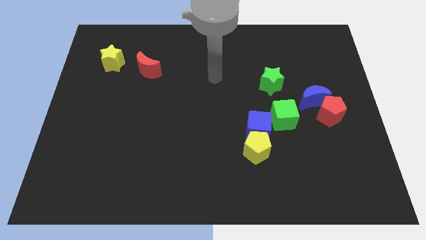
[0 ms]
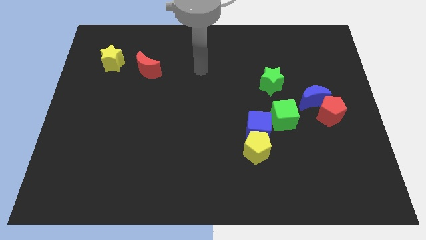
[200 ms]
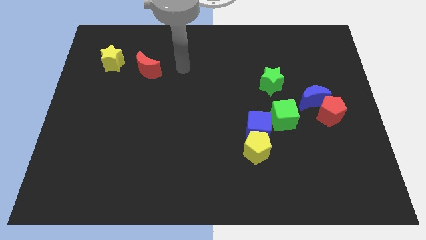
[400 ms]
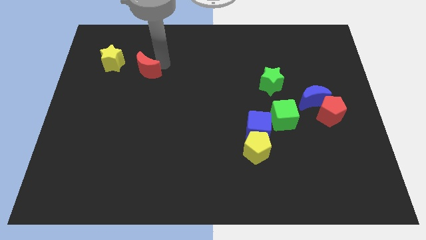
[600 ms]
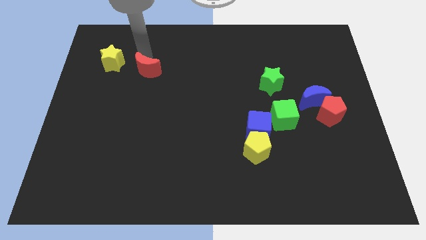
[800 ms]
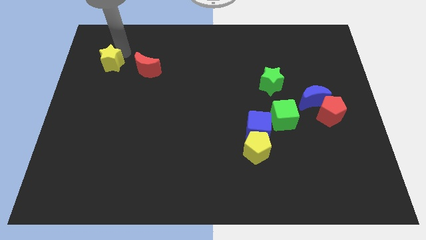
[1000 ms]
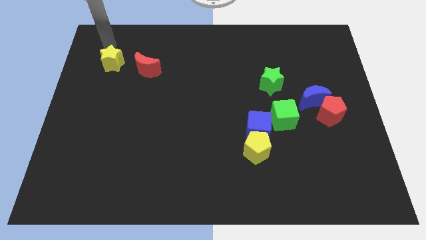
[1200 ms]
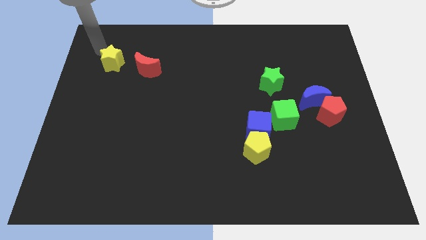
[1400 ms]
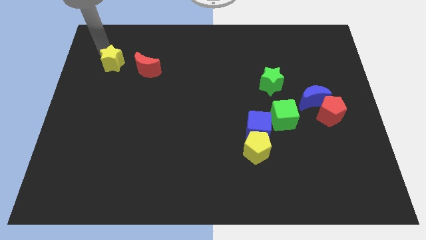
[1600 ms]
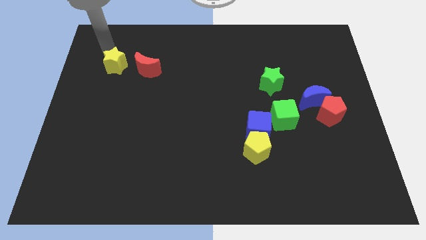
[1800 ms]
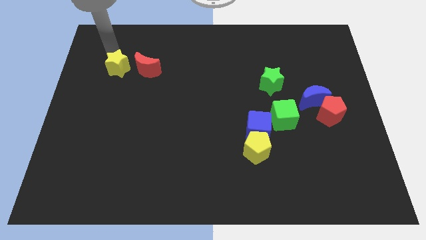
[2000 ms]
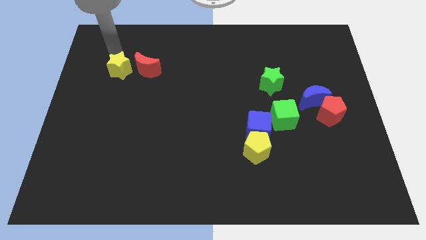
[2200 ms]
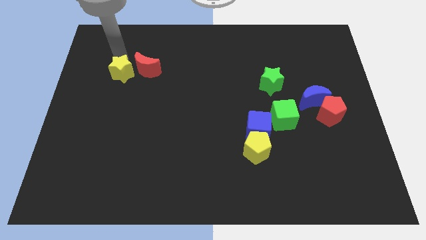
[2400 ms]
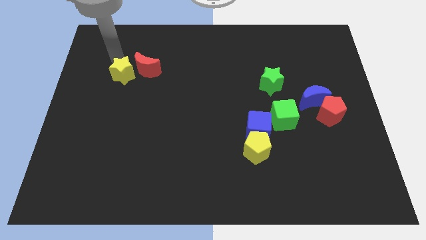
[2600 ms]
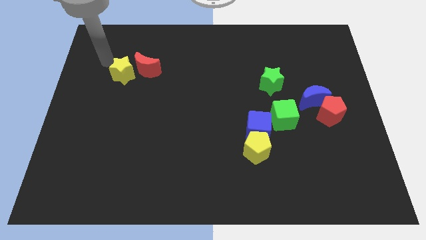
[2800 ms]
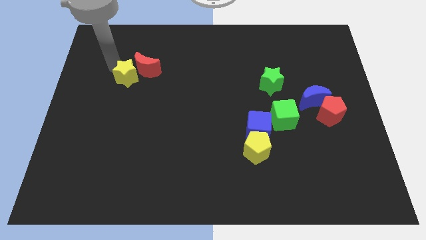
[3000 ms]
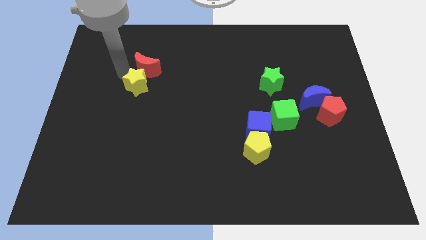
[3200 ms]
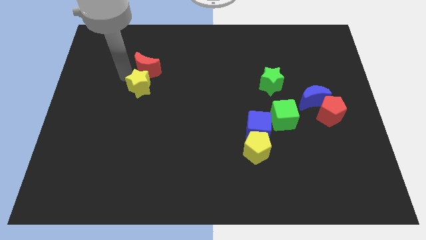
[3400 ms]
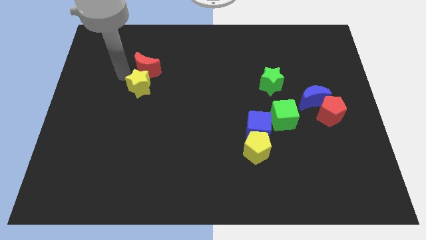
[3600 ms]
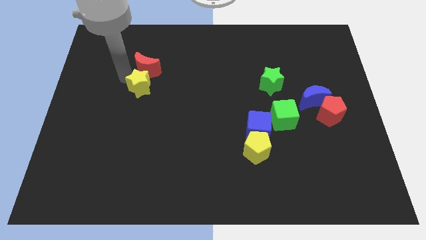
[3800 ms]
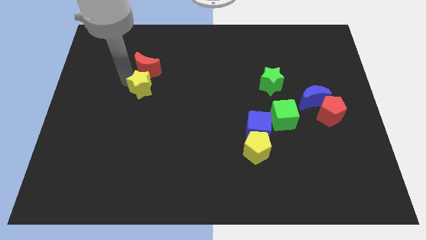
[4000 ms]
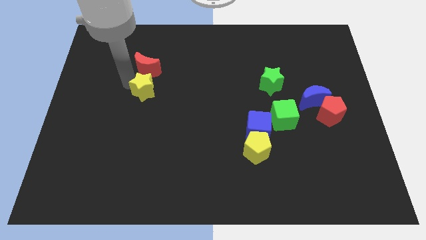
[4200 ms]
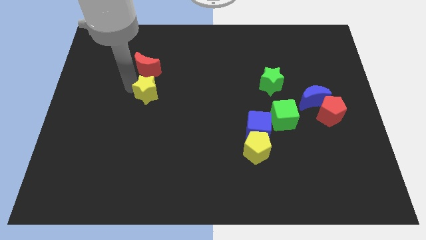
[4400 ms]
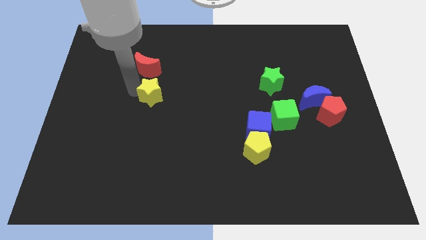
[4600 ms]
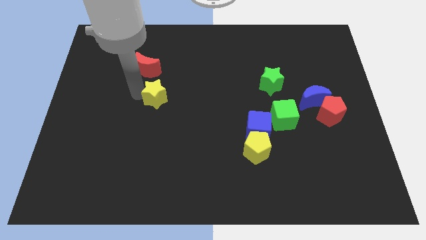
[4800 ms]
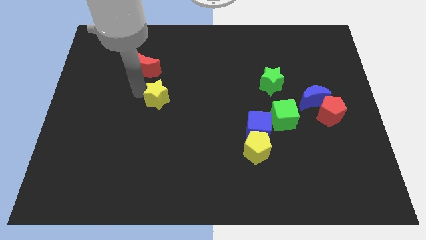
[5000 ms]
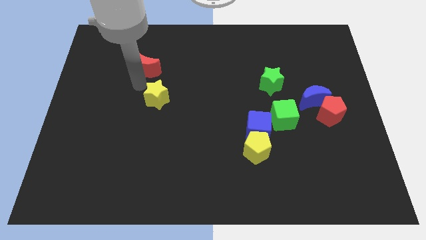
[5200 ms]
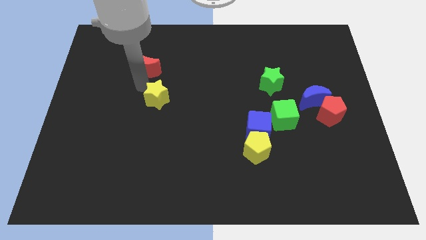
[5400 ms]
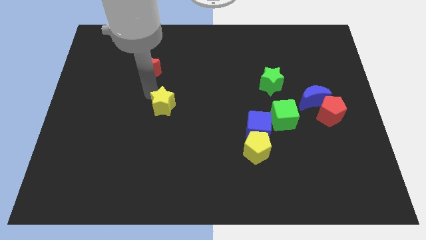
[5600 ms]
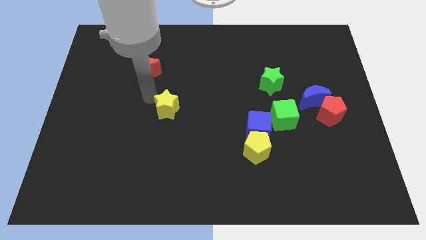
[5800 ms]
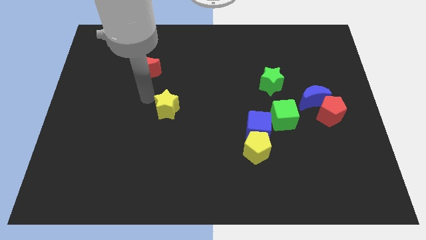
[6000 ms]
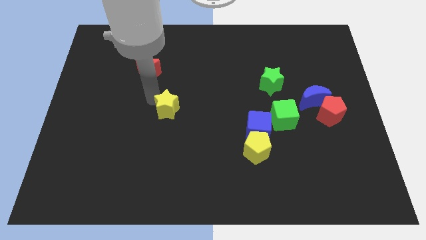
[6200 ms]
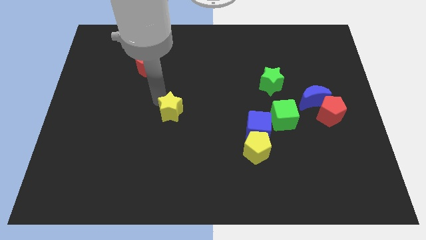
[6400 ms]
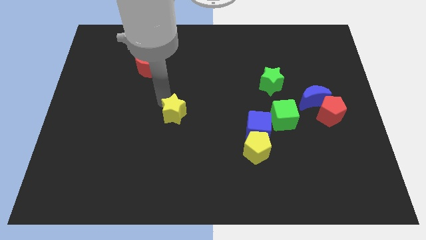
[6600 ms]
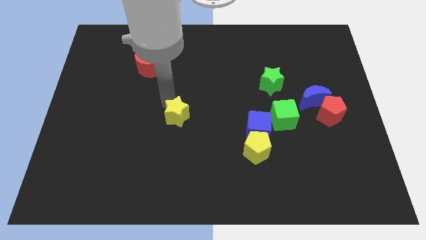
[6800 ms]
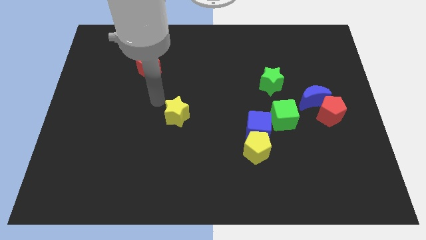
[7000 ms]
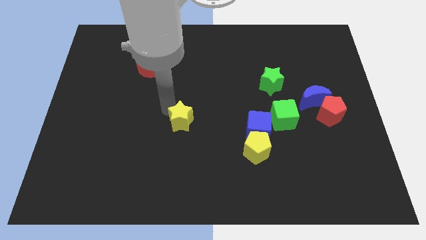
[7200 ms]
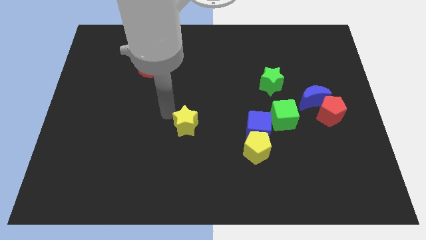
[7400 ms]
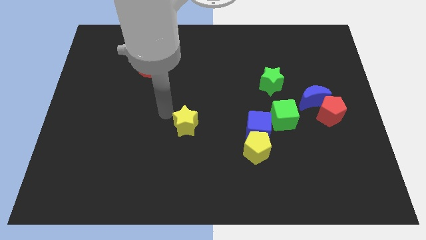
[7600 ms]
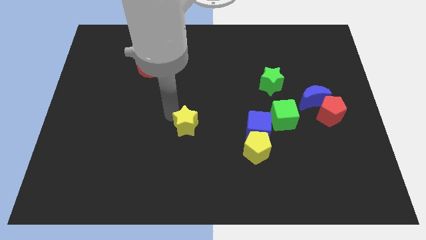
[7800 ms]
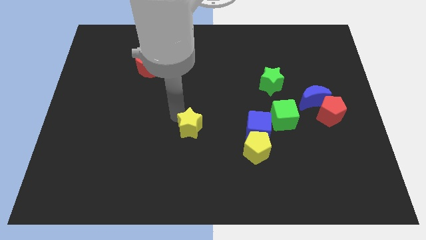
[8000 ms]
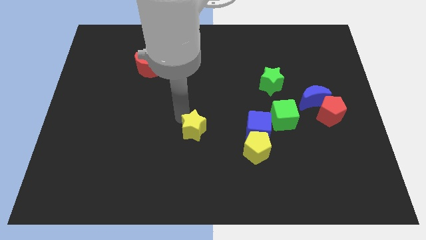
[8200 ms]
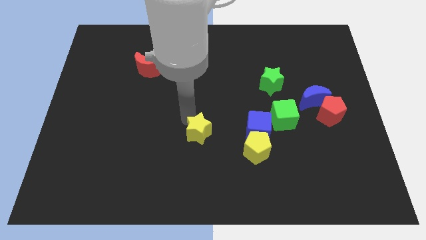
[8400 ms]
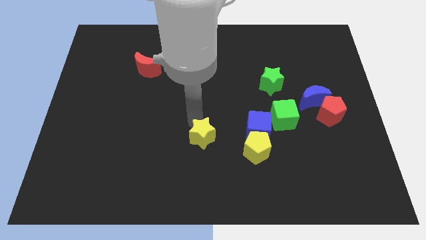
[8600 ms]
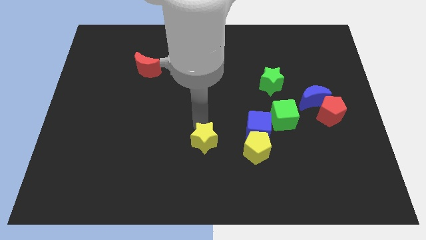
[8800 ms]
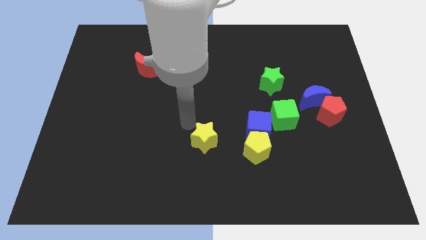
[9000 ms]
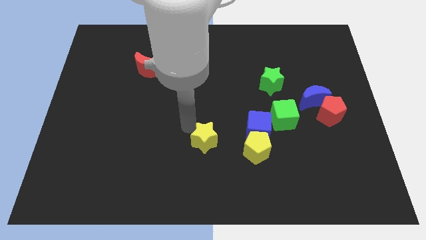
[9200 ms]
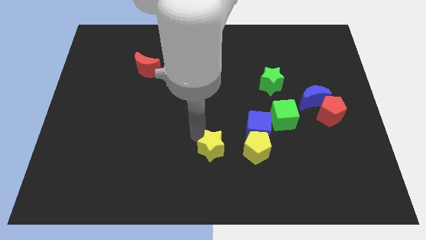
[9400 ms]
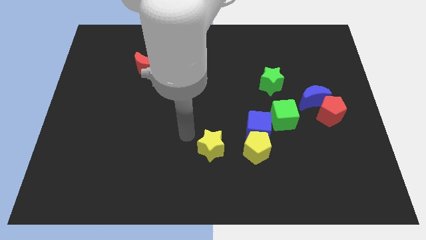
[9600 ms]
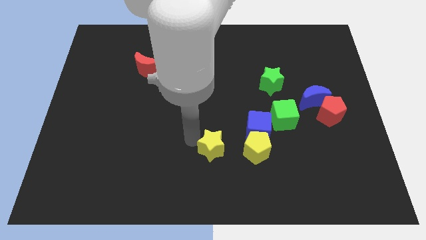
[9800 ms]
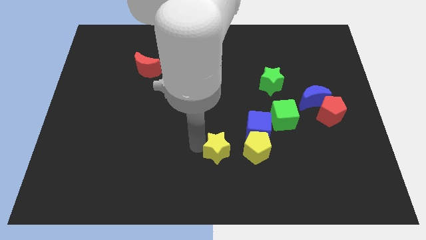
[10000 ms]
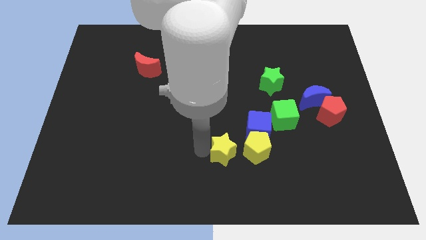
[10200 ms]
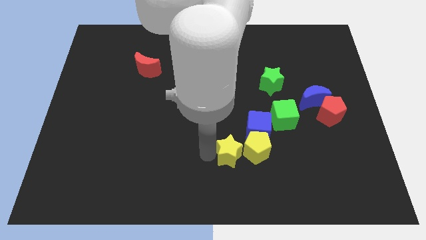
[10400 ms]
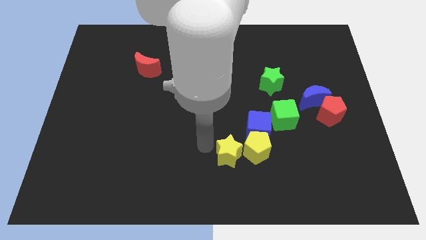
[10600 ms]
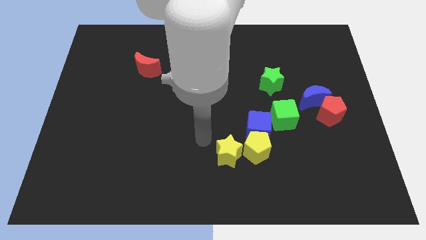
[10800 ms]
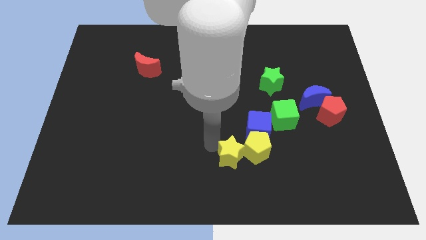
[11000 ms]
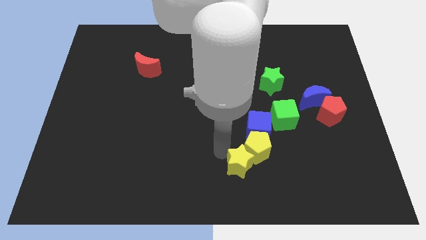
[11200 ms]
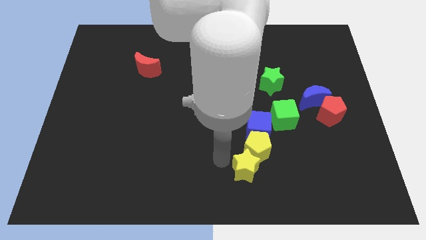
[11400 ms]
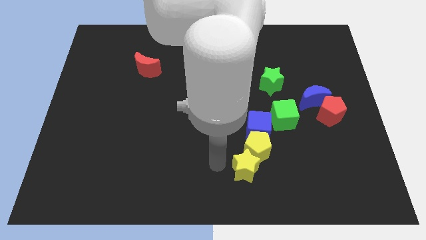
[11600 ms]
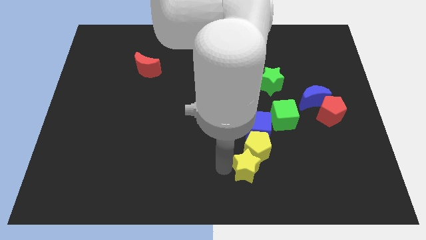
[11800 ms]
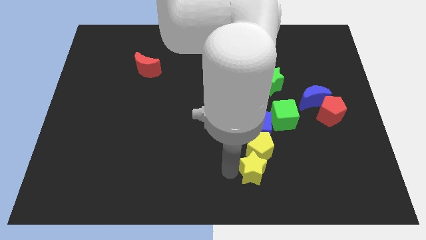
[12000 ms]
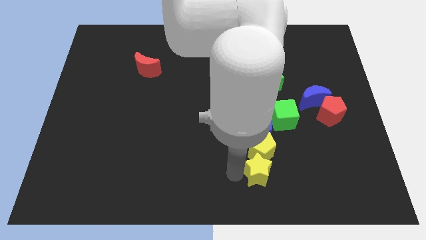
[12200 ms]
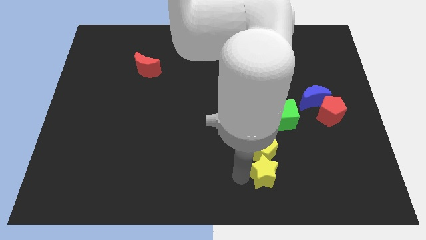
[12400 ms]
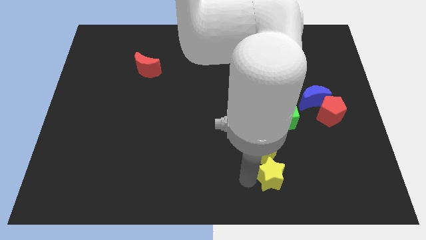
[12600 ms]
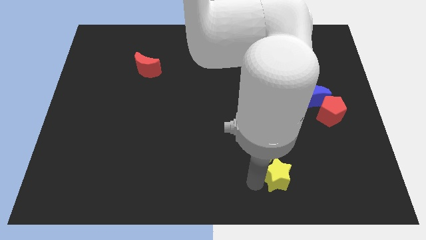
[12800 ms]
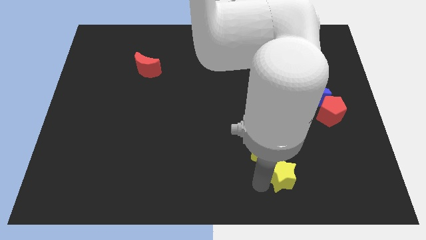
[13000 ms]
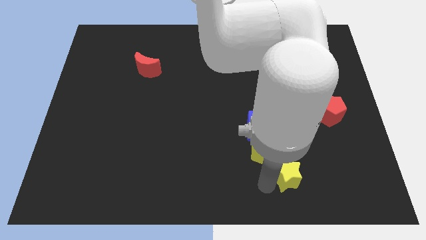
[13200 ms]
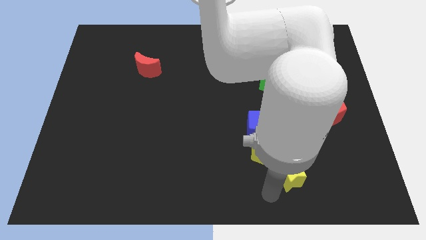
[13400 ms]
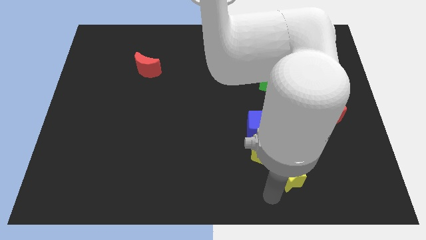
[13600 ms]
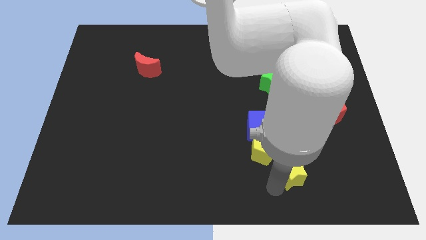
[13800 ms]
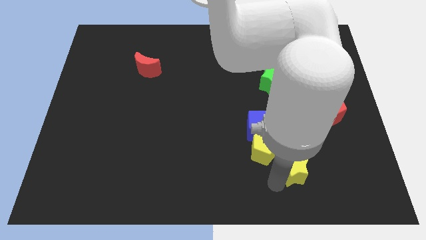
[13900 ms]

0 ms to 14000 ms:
push the yellow star right of the yellow pentagon
